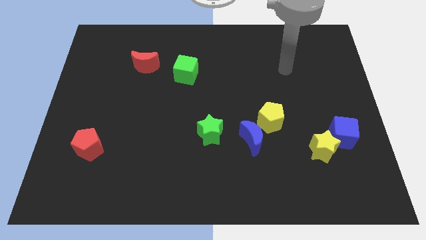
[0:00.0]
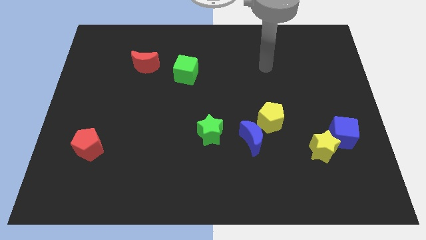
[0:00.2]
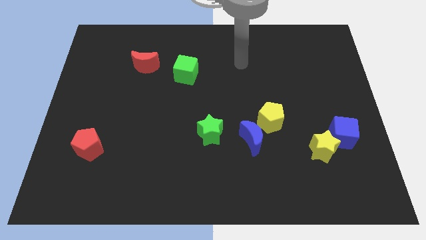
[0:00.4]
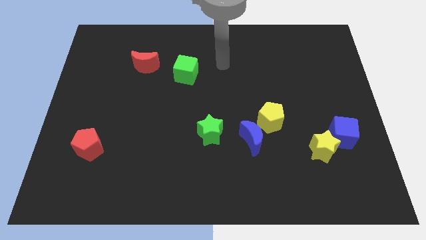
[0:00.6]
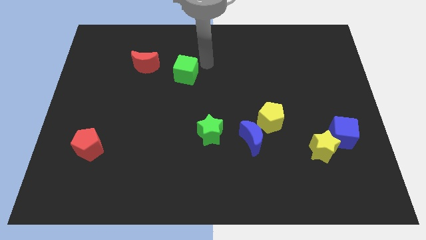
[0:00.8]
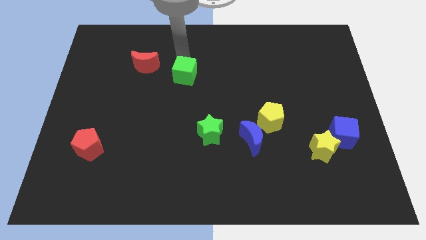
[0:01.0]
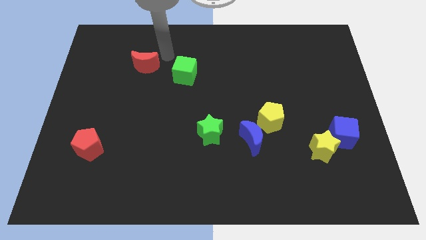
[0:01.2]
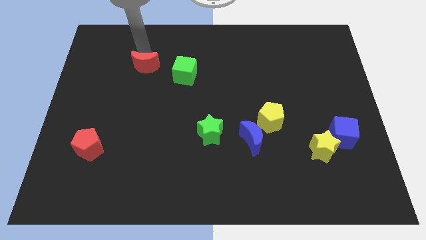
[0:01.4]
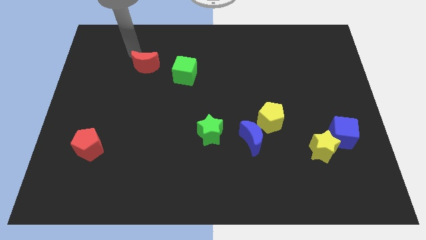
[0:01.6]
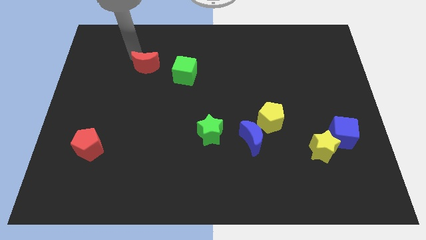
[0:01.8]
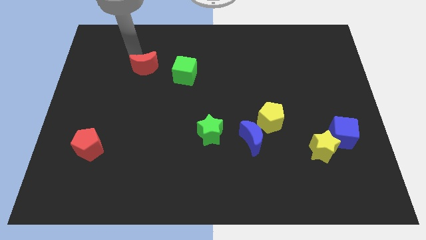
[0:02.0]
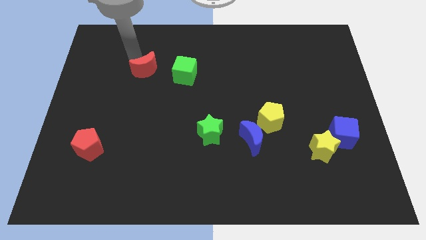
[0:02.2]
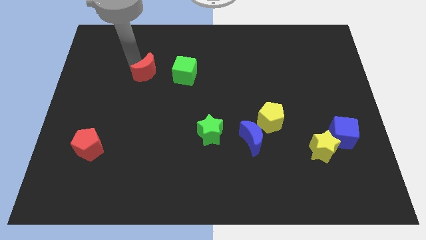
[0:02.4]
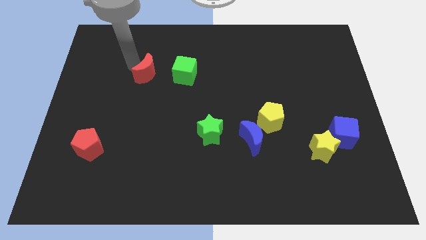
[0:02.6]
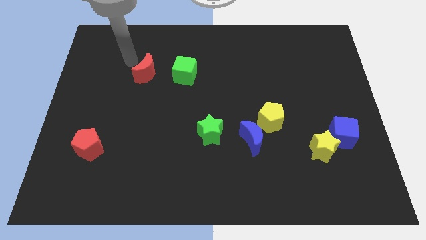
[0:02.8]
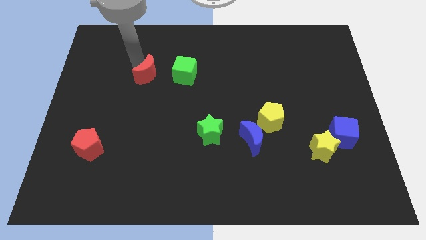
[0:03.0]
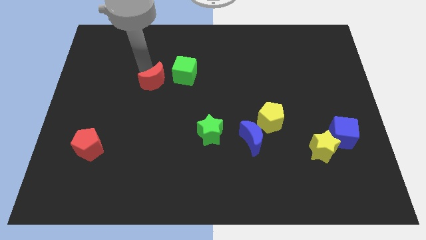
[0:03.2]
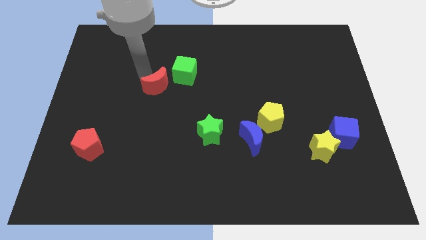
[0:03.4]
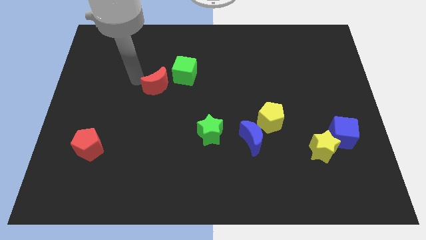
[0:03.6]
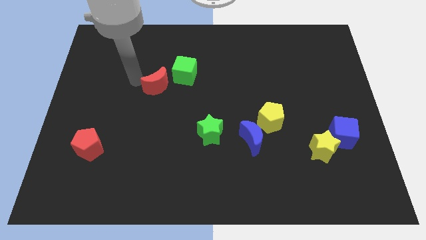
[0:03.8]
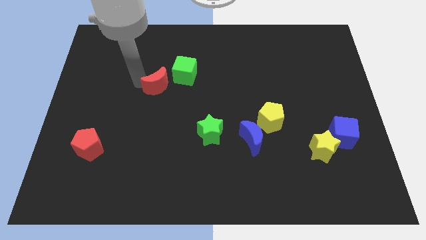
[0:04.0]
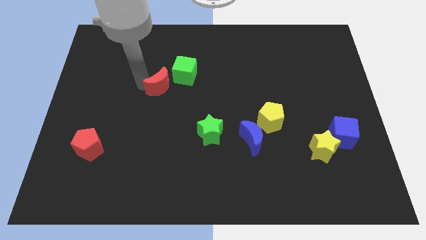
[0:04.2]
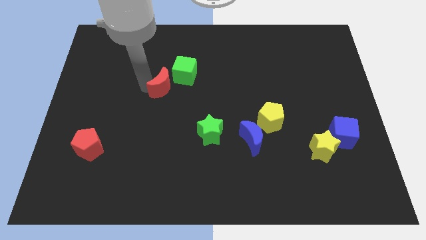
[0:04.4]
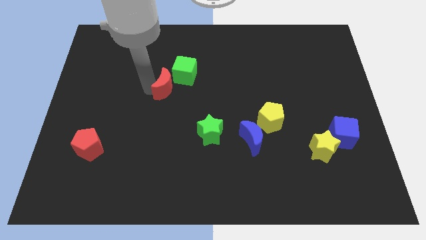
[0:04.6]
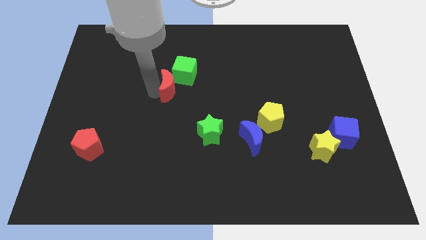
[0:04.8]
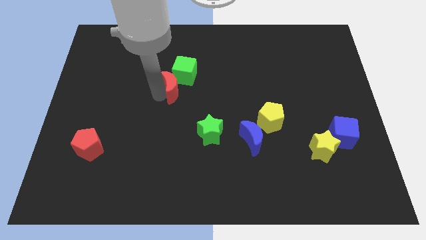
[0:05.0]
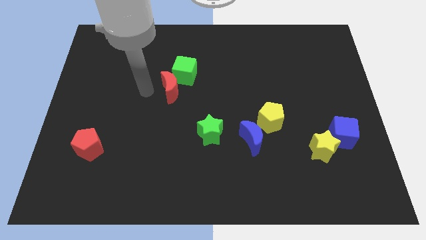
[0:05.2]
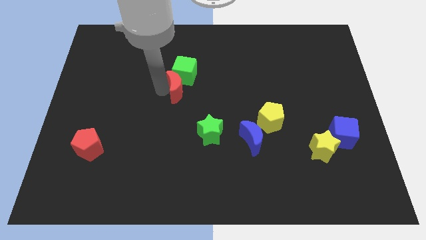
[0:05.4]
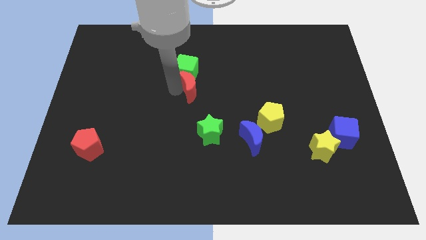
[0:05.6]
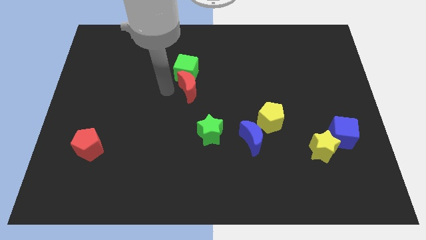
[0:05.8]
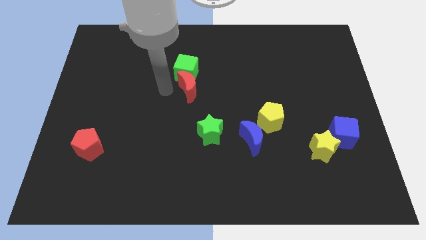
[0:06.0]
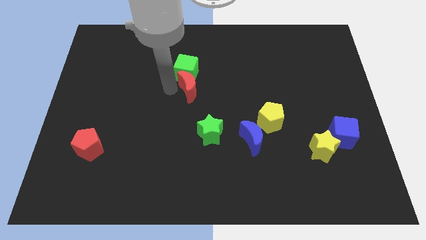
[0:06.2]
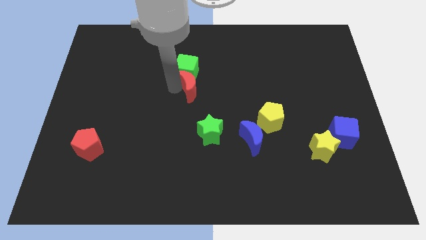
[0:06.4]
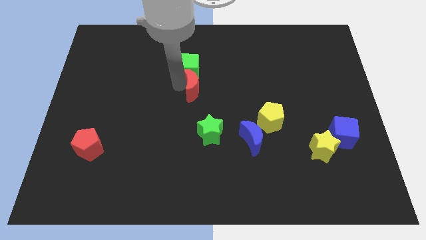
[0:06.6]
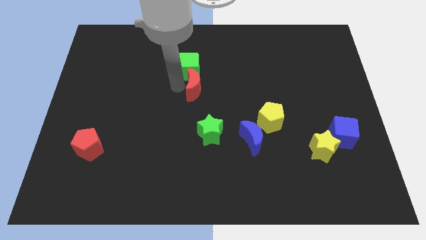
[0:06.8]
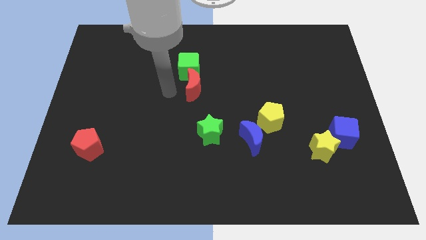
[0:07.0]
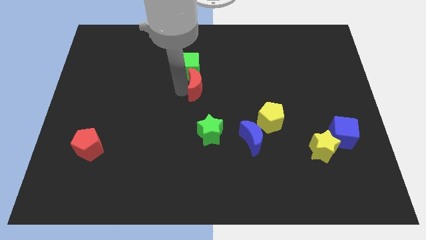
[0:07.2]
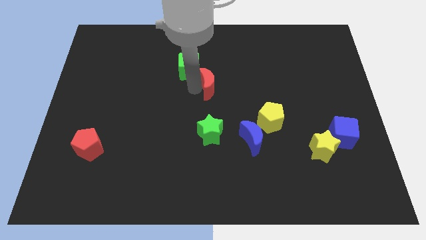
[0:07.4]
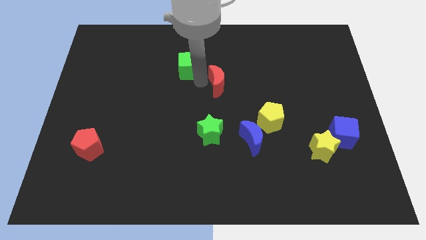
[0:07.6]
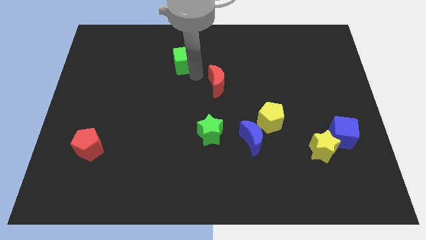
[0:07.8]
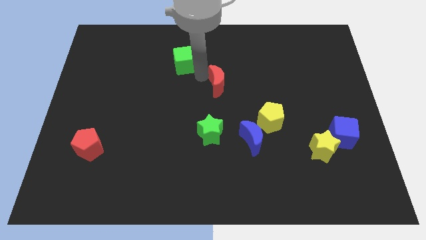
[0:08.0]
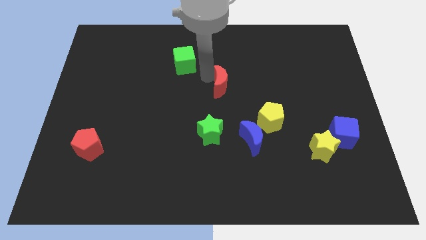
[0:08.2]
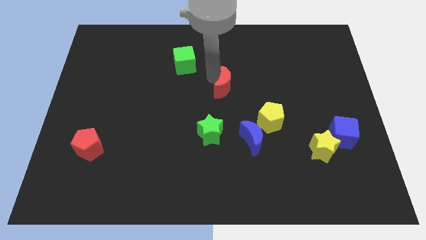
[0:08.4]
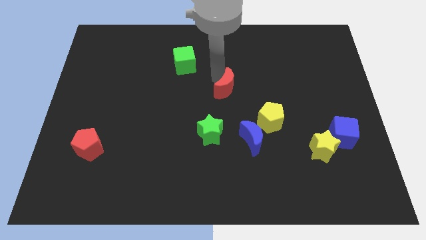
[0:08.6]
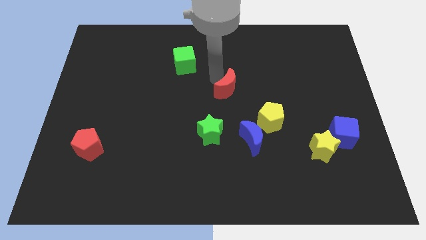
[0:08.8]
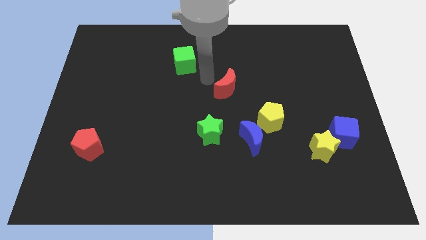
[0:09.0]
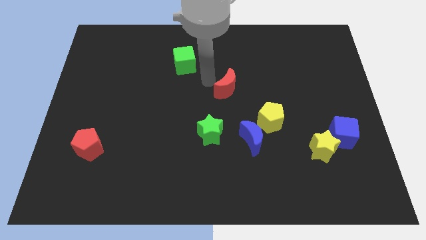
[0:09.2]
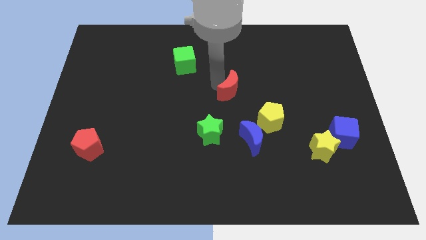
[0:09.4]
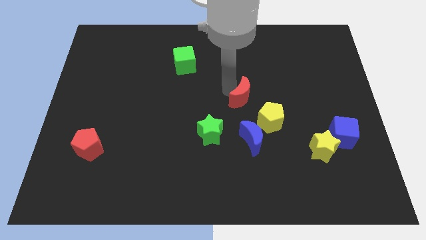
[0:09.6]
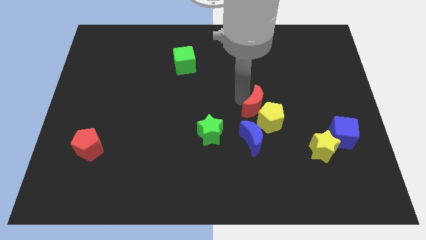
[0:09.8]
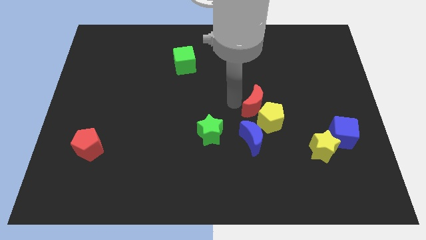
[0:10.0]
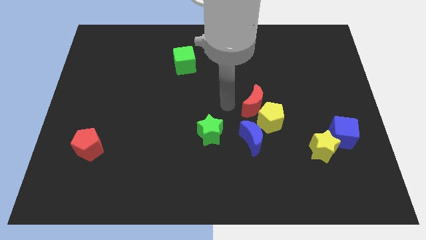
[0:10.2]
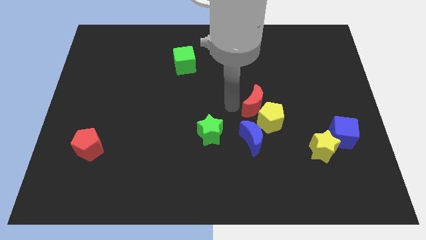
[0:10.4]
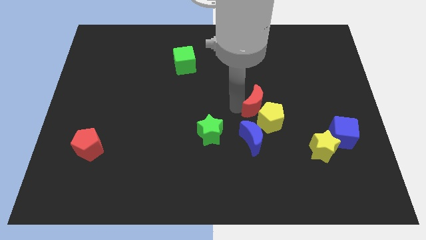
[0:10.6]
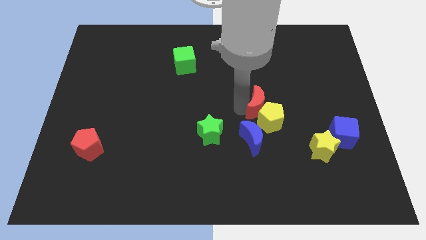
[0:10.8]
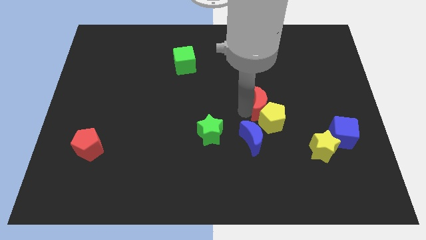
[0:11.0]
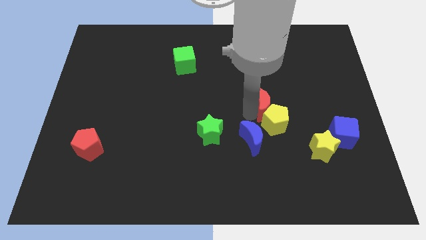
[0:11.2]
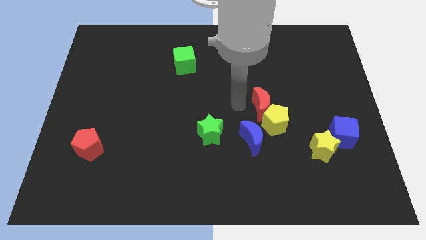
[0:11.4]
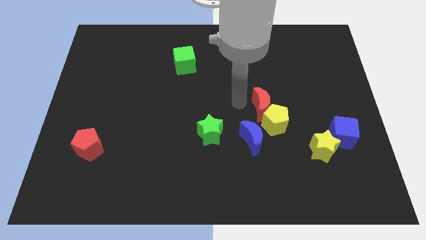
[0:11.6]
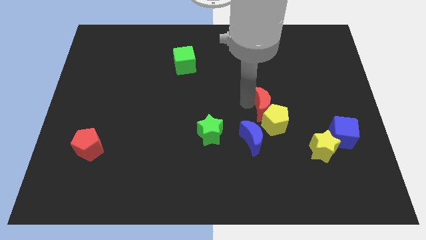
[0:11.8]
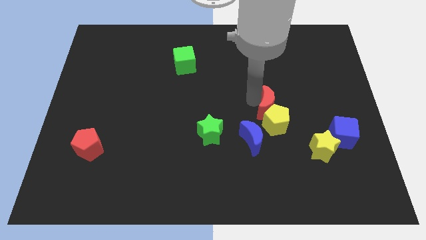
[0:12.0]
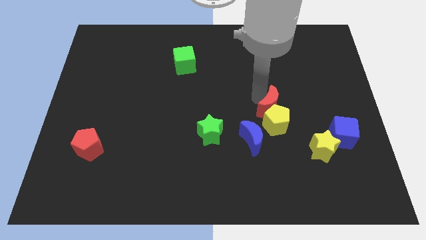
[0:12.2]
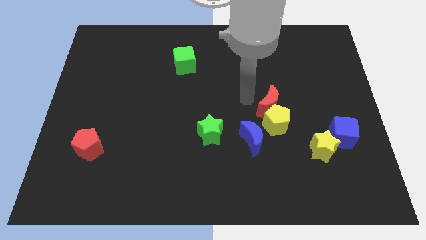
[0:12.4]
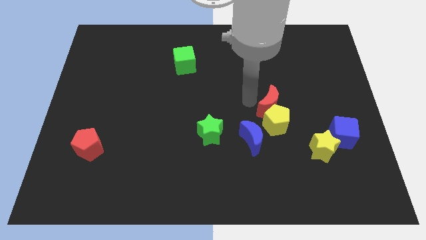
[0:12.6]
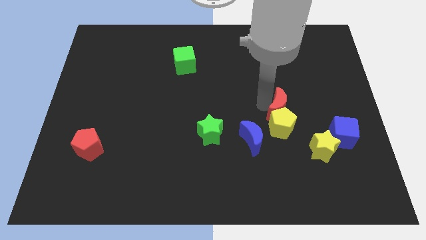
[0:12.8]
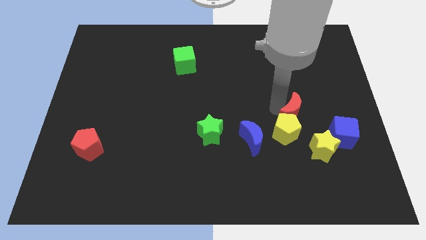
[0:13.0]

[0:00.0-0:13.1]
push the red moon to the top left side of the blue cube

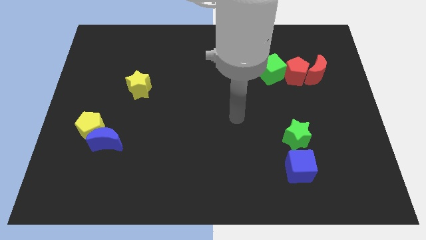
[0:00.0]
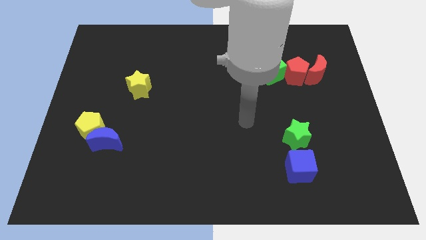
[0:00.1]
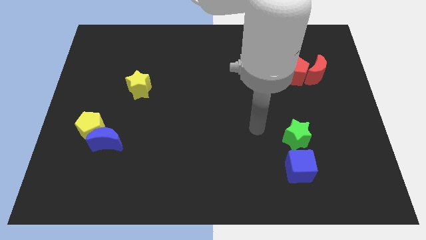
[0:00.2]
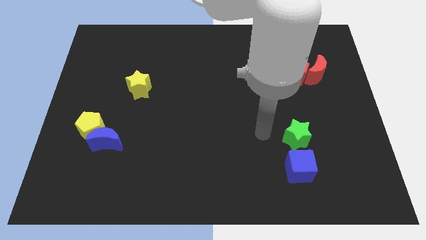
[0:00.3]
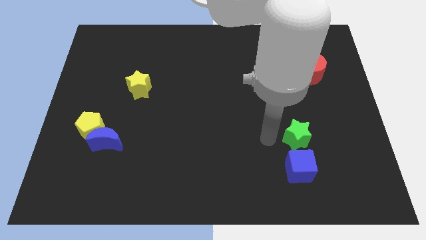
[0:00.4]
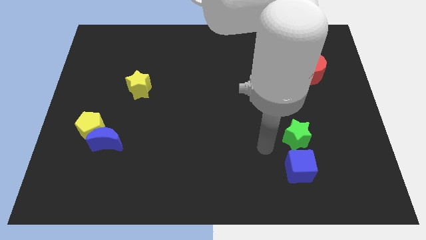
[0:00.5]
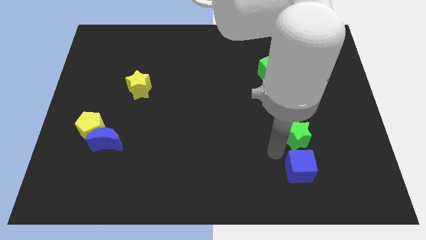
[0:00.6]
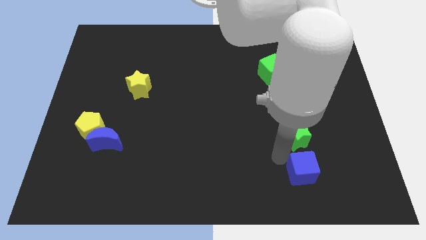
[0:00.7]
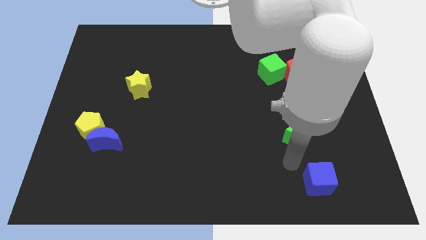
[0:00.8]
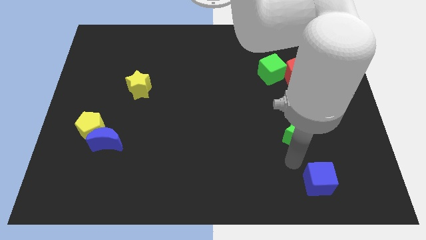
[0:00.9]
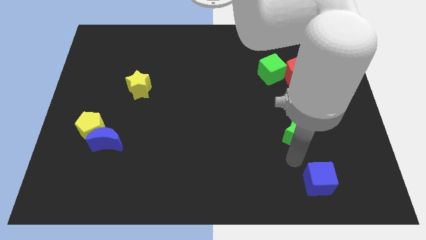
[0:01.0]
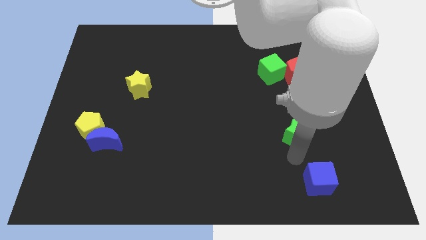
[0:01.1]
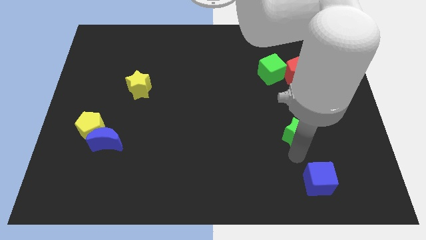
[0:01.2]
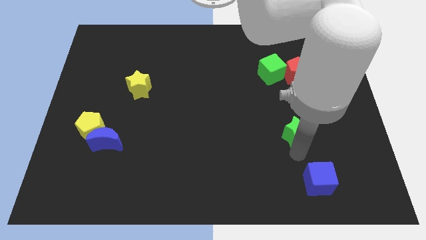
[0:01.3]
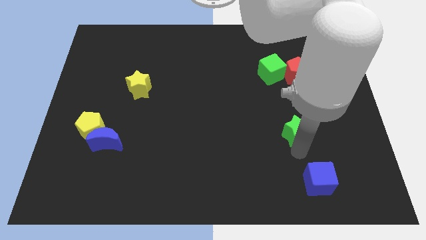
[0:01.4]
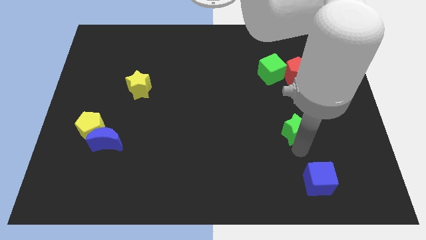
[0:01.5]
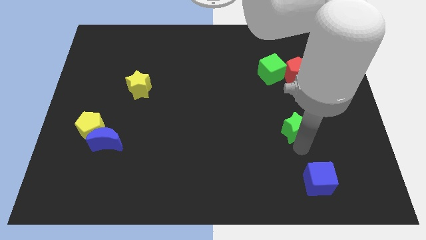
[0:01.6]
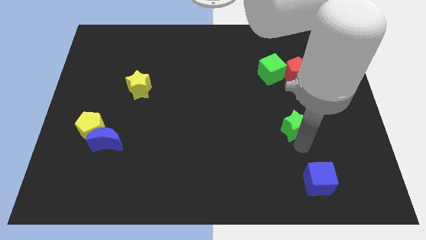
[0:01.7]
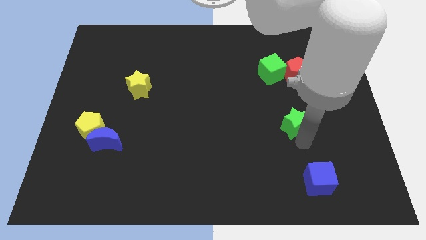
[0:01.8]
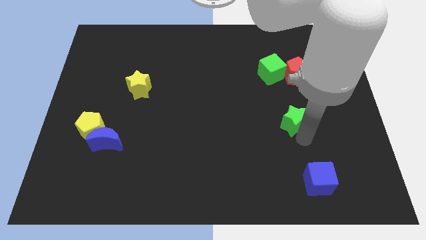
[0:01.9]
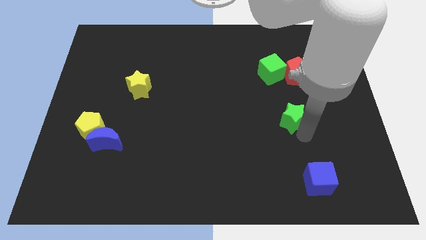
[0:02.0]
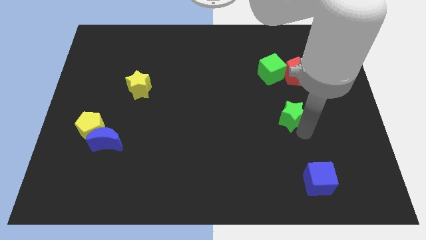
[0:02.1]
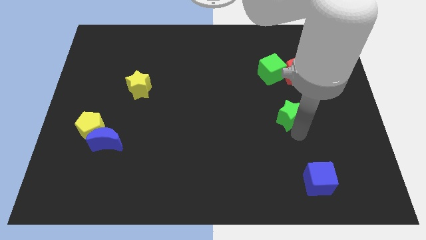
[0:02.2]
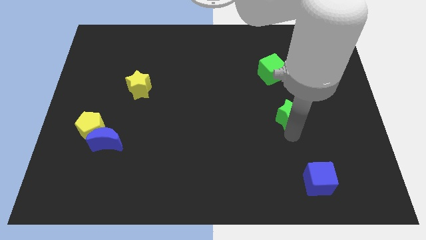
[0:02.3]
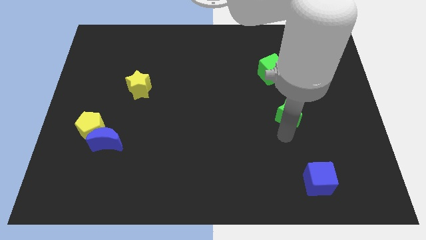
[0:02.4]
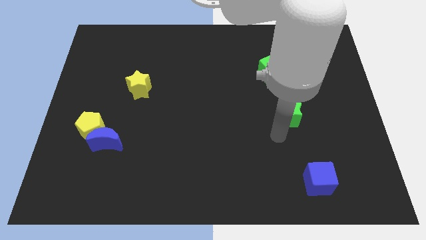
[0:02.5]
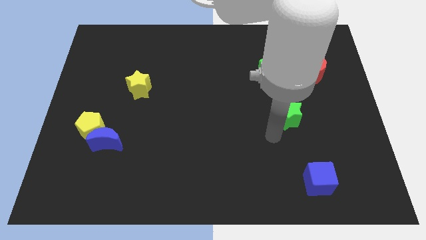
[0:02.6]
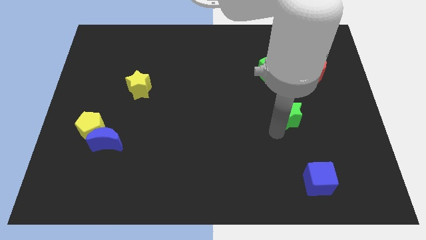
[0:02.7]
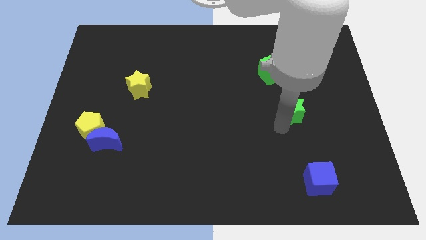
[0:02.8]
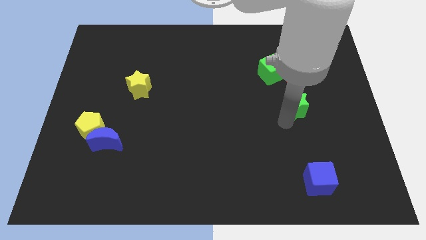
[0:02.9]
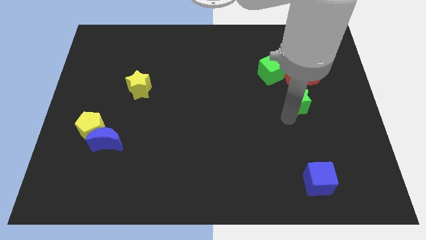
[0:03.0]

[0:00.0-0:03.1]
put the green star to the bottom left of the red moon
